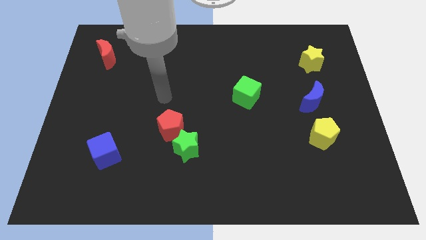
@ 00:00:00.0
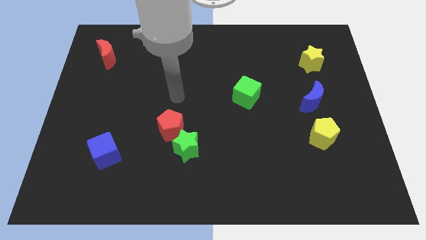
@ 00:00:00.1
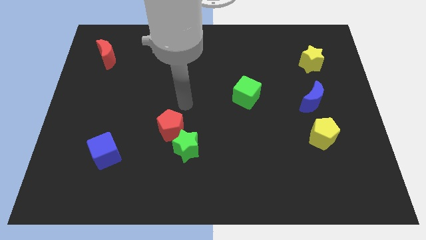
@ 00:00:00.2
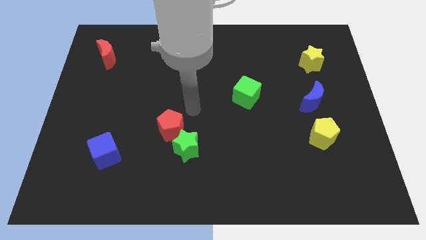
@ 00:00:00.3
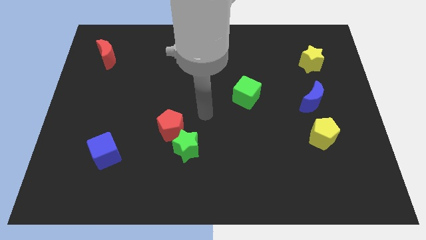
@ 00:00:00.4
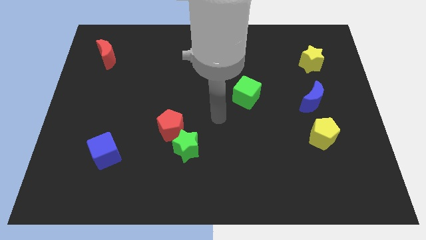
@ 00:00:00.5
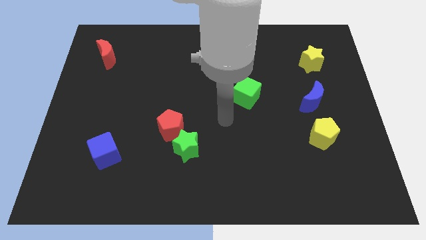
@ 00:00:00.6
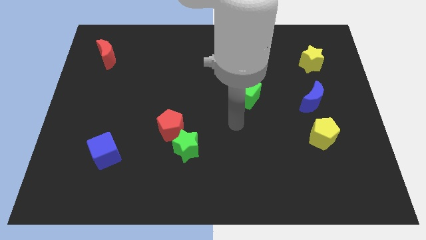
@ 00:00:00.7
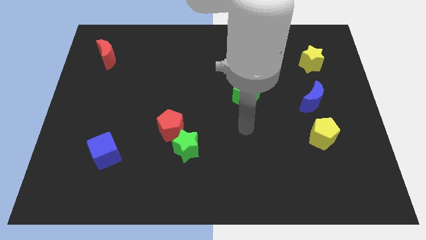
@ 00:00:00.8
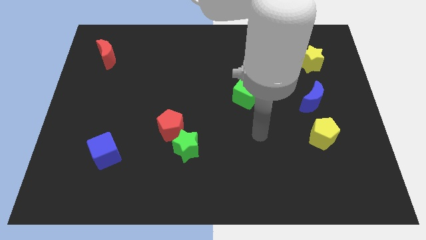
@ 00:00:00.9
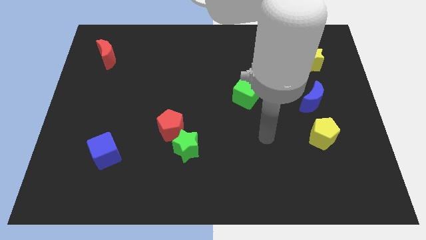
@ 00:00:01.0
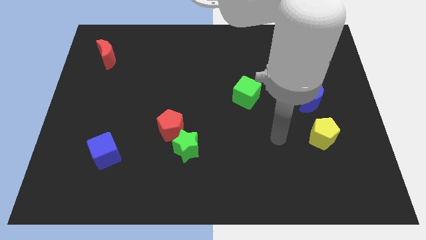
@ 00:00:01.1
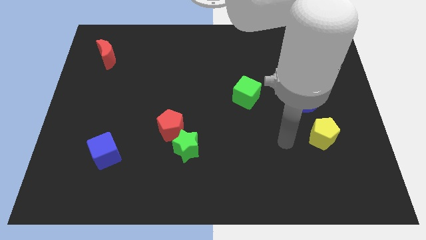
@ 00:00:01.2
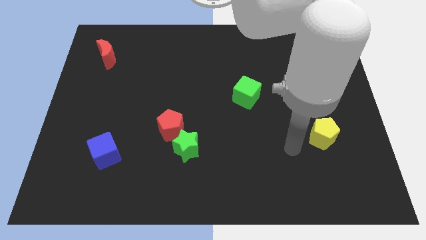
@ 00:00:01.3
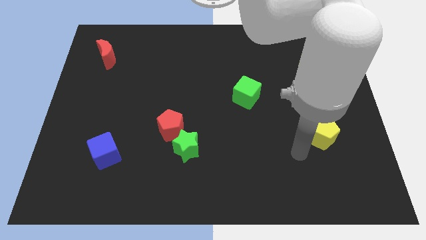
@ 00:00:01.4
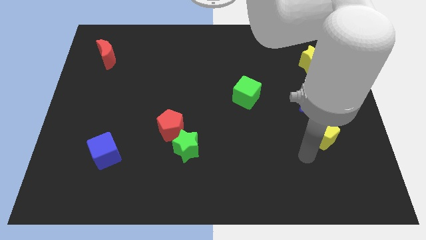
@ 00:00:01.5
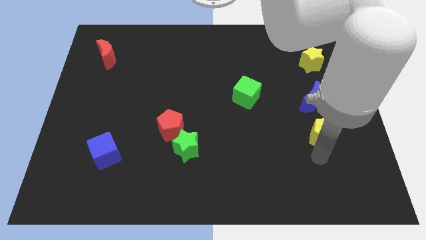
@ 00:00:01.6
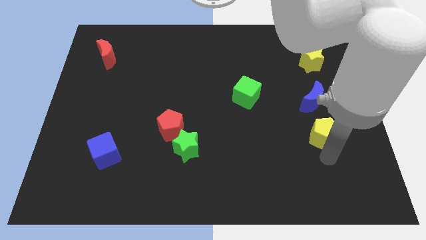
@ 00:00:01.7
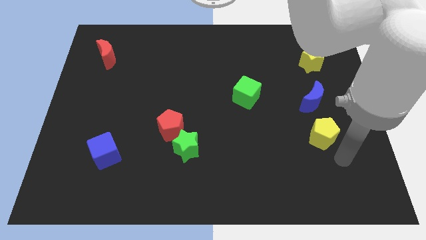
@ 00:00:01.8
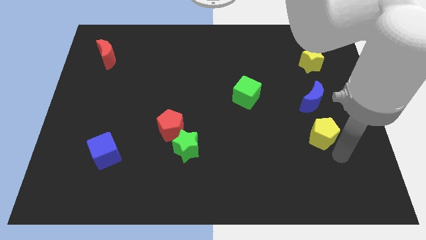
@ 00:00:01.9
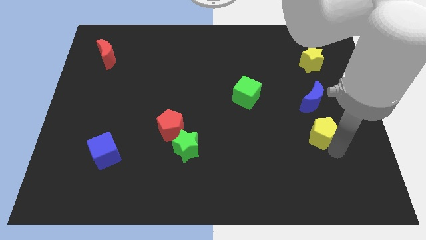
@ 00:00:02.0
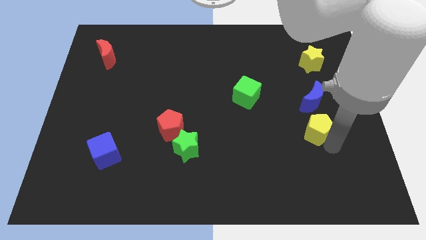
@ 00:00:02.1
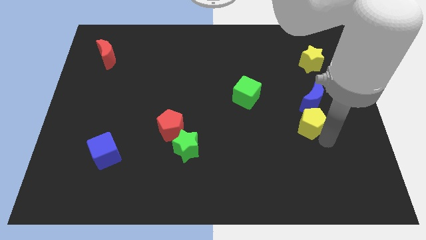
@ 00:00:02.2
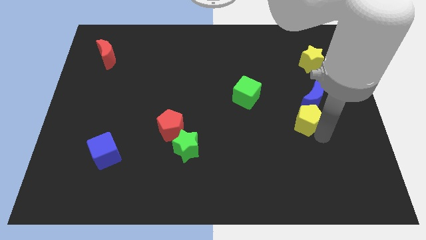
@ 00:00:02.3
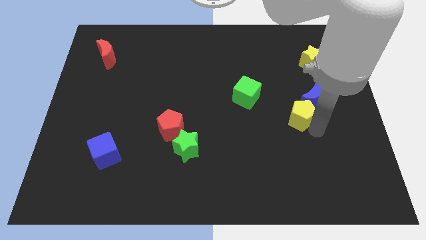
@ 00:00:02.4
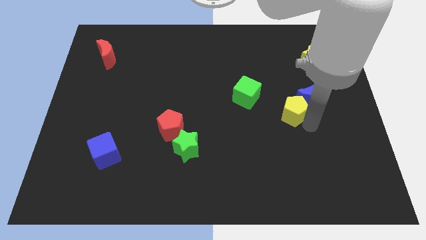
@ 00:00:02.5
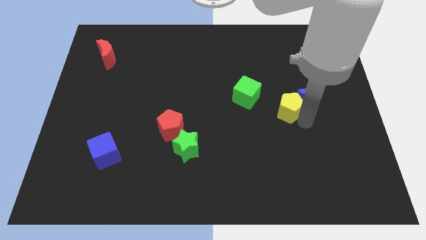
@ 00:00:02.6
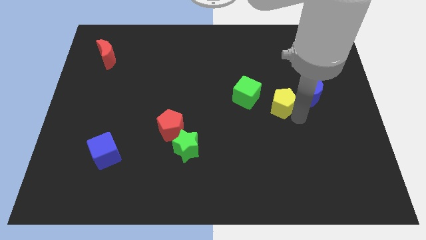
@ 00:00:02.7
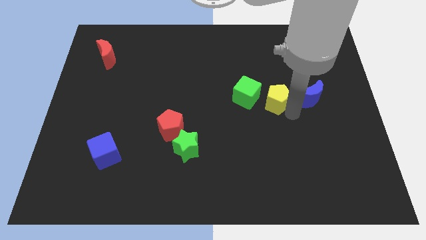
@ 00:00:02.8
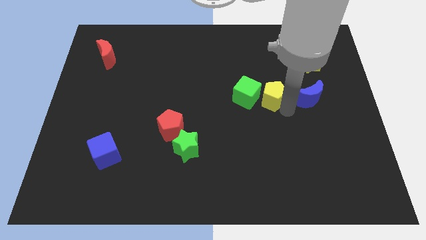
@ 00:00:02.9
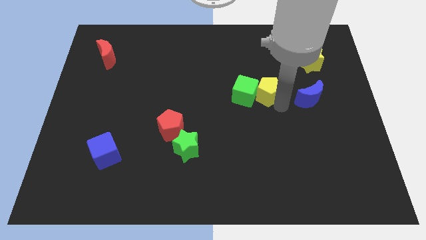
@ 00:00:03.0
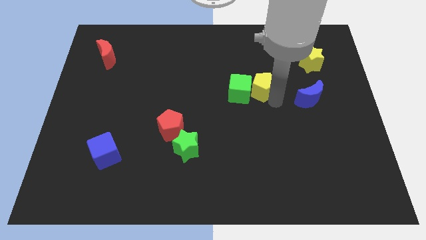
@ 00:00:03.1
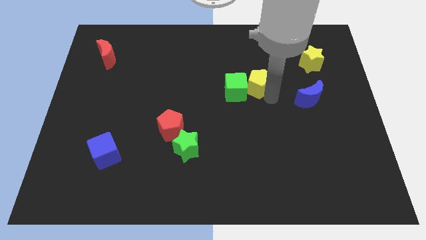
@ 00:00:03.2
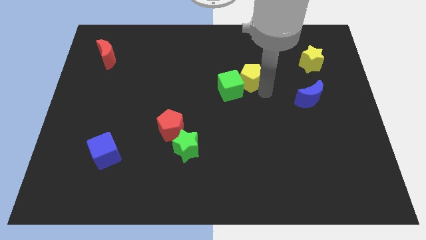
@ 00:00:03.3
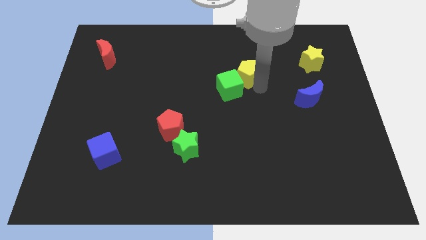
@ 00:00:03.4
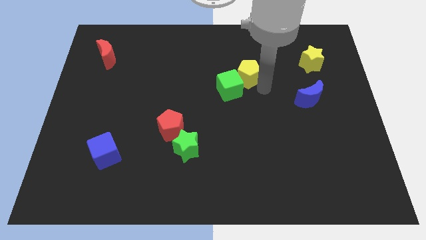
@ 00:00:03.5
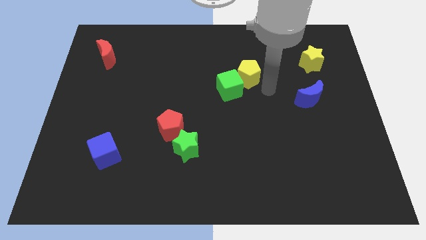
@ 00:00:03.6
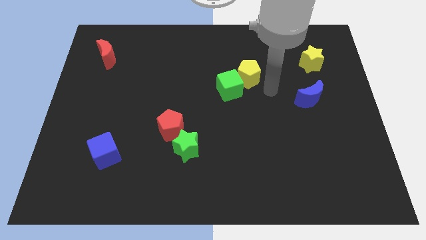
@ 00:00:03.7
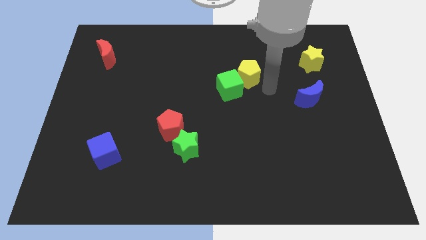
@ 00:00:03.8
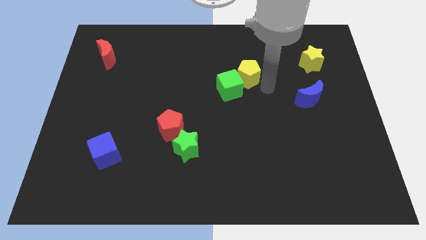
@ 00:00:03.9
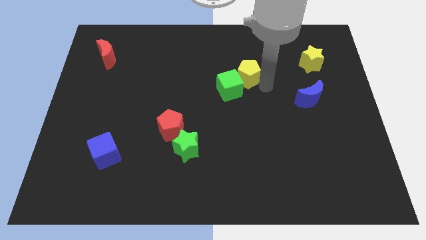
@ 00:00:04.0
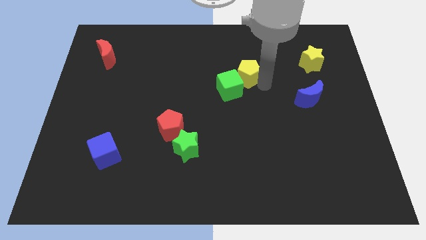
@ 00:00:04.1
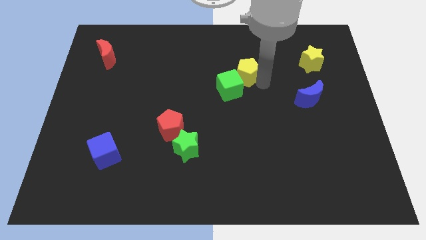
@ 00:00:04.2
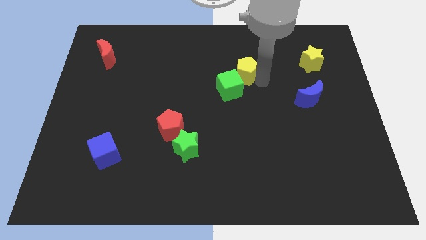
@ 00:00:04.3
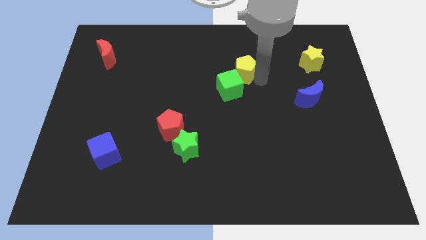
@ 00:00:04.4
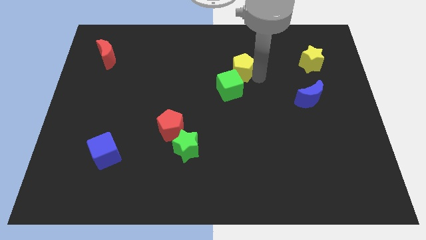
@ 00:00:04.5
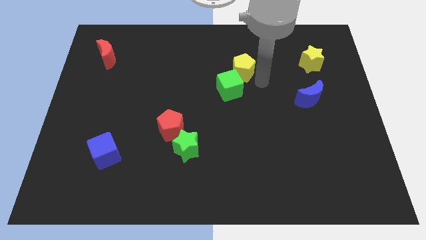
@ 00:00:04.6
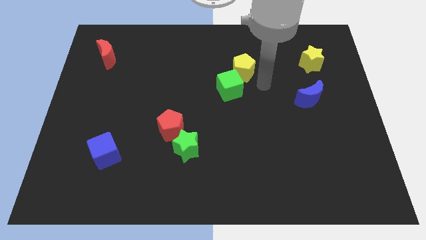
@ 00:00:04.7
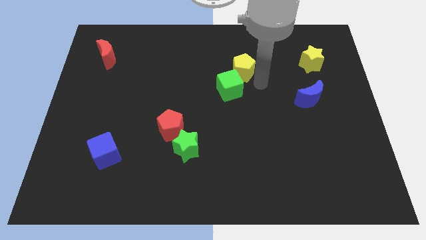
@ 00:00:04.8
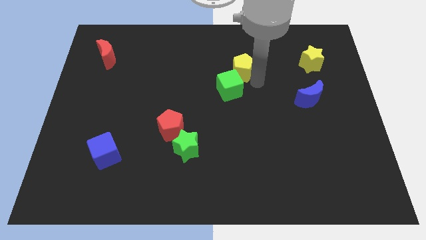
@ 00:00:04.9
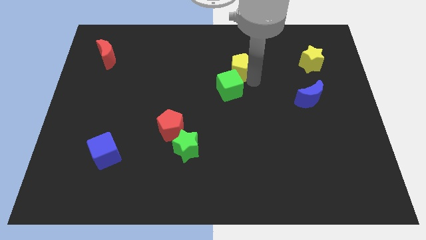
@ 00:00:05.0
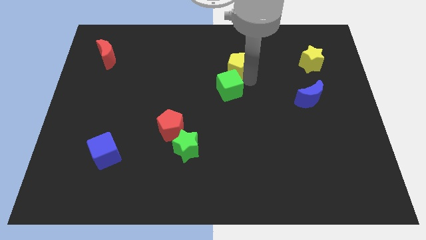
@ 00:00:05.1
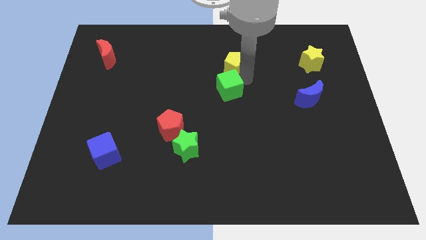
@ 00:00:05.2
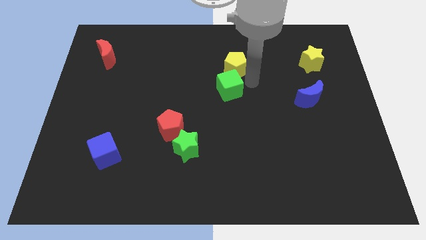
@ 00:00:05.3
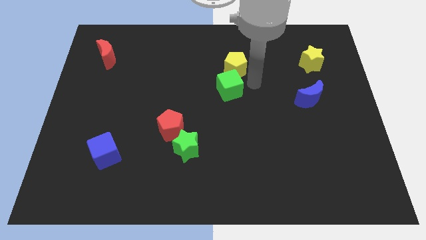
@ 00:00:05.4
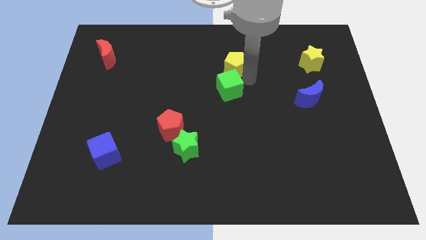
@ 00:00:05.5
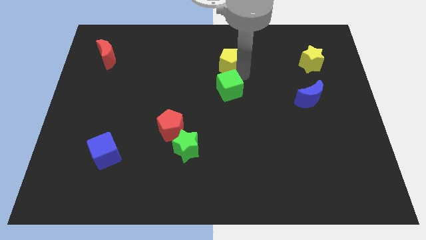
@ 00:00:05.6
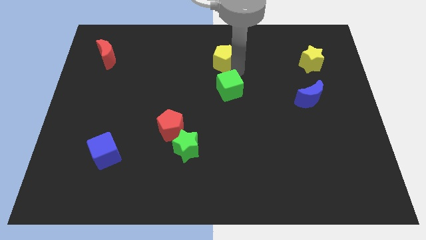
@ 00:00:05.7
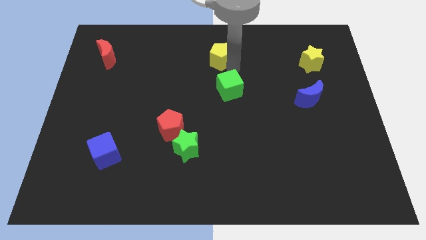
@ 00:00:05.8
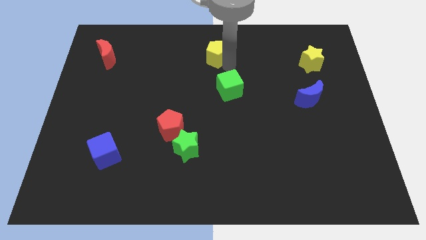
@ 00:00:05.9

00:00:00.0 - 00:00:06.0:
move the yellow pentagon to the top side

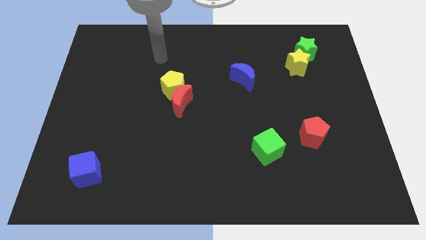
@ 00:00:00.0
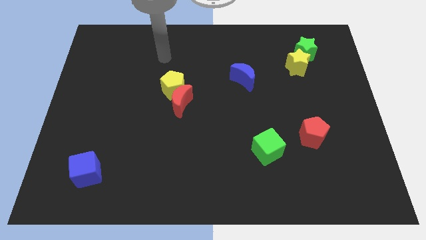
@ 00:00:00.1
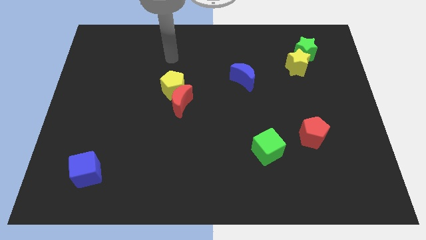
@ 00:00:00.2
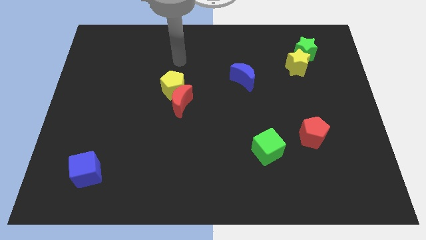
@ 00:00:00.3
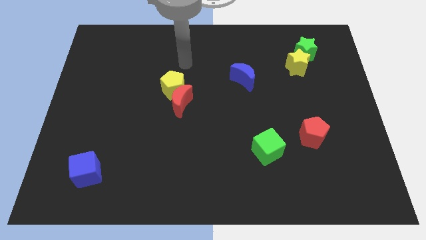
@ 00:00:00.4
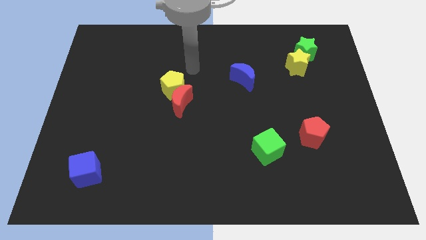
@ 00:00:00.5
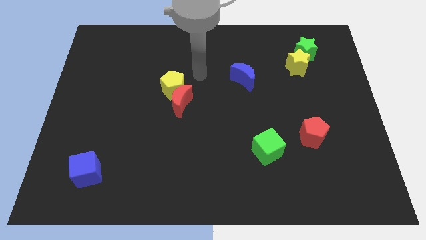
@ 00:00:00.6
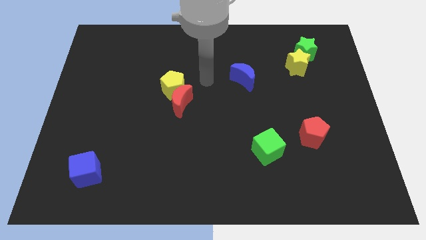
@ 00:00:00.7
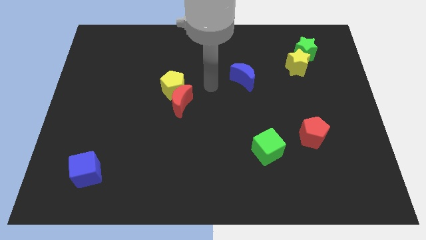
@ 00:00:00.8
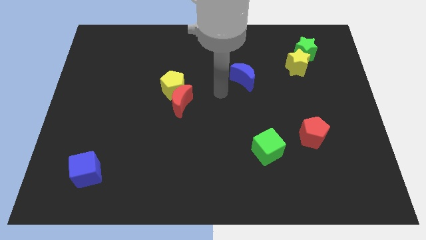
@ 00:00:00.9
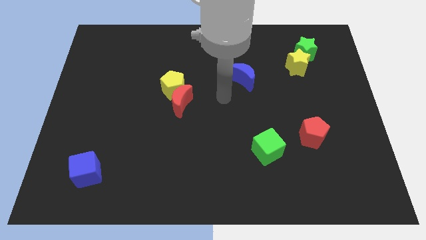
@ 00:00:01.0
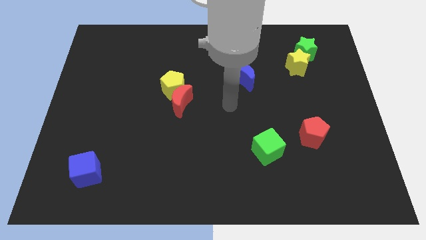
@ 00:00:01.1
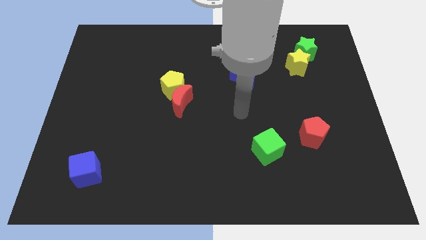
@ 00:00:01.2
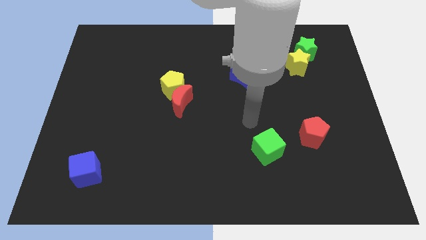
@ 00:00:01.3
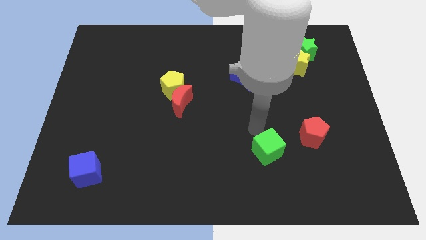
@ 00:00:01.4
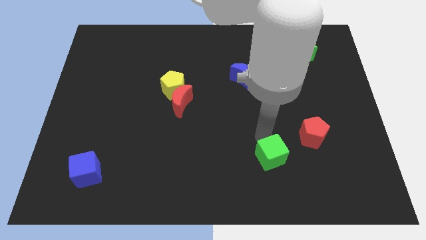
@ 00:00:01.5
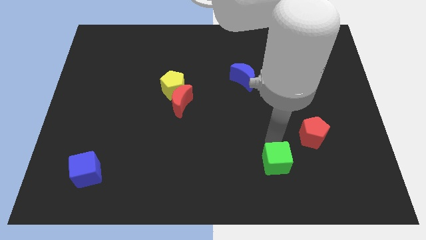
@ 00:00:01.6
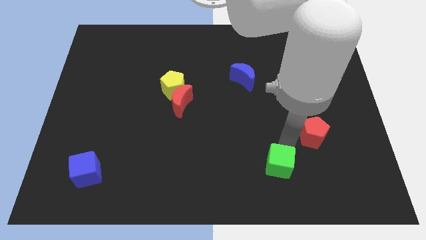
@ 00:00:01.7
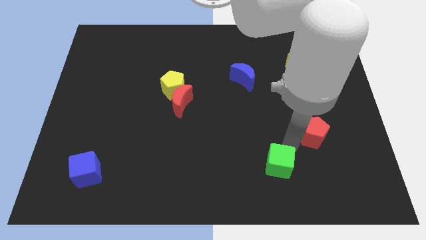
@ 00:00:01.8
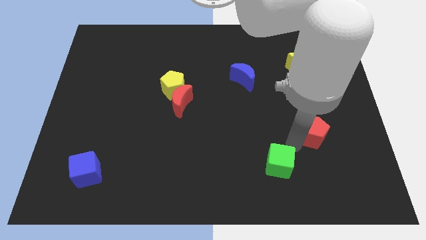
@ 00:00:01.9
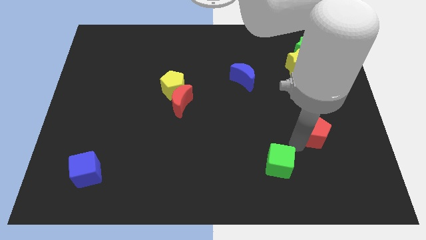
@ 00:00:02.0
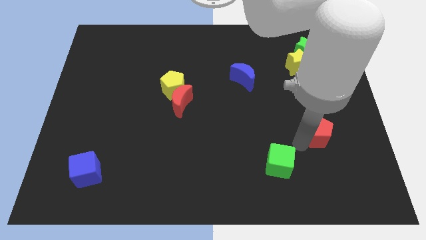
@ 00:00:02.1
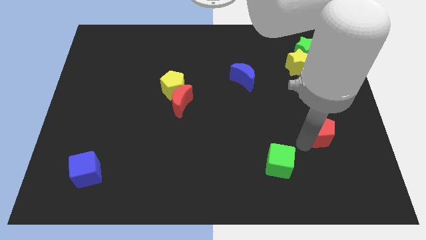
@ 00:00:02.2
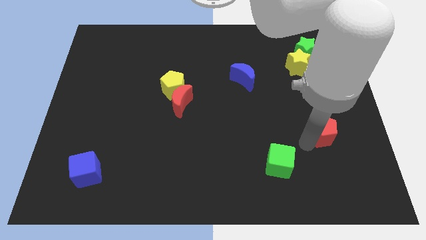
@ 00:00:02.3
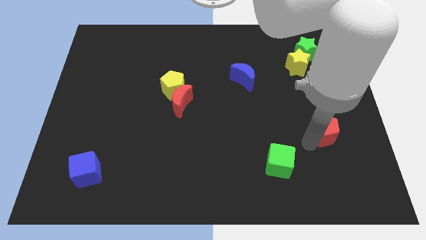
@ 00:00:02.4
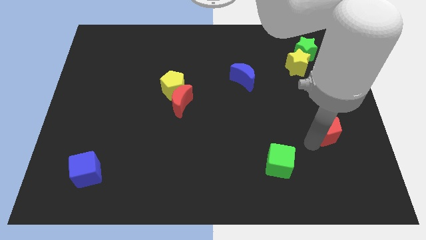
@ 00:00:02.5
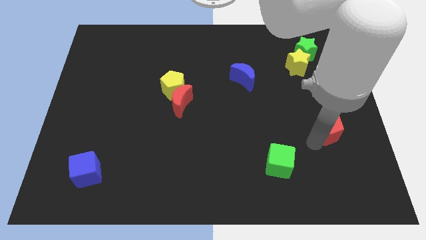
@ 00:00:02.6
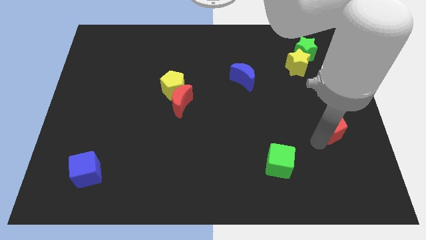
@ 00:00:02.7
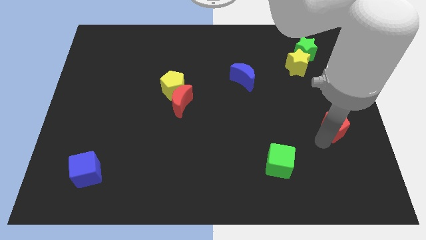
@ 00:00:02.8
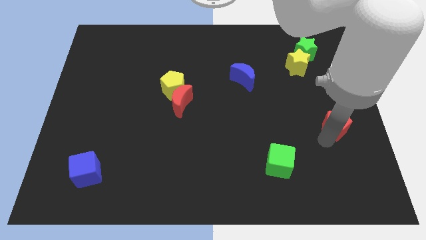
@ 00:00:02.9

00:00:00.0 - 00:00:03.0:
slide the red pentagon to the right side of the board
